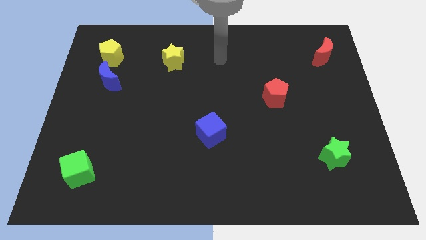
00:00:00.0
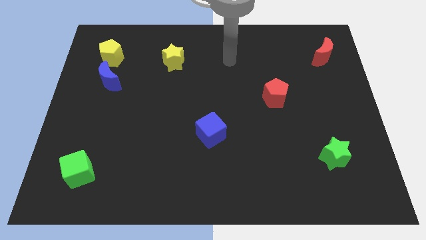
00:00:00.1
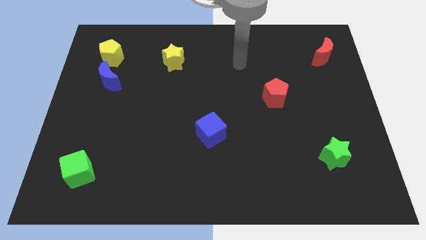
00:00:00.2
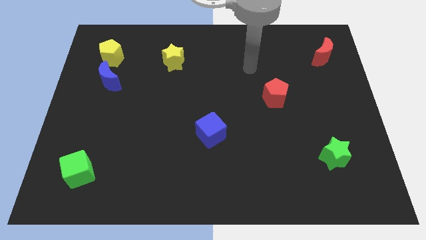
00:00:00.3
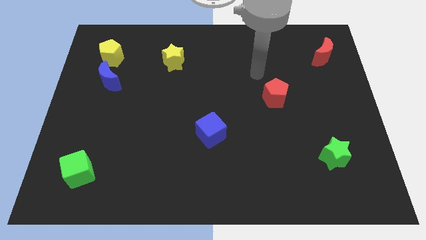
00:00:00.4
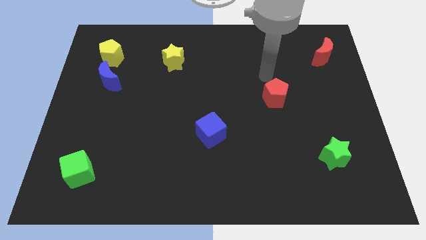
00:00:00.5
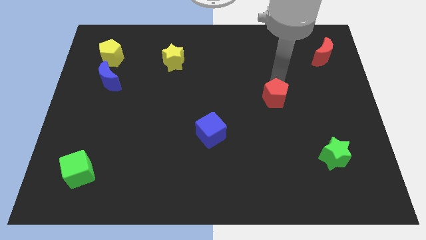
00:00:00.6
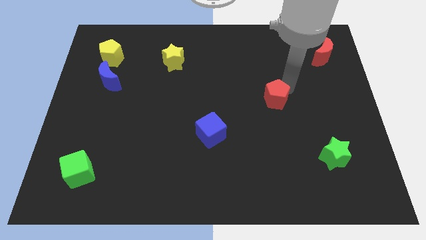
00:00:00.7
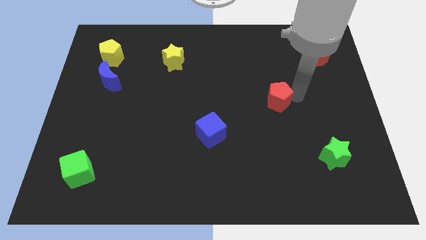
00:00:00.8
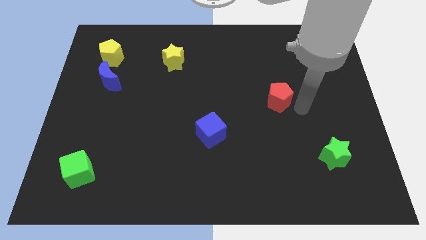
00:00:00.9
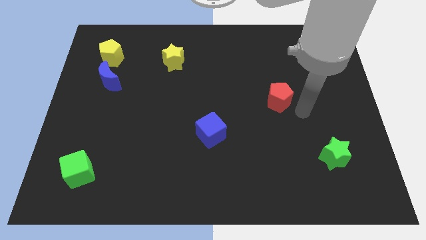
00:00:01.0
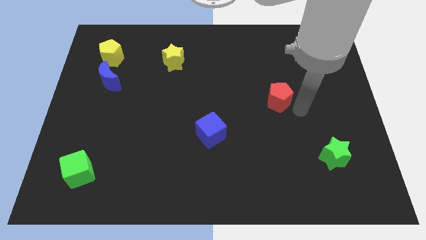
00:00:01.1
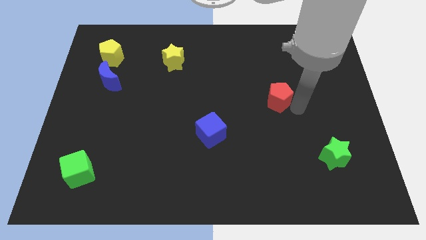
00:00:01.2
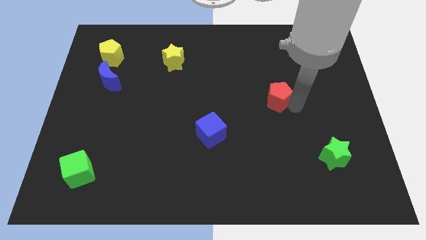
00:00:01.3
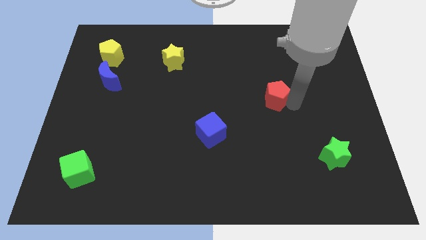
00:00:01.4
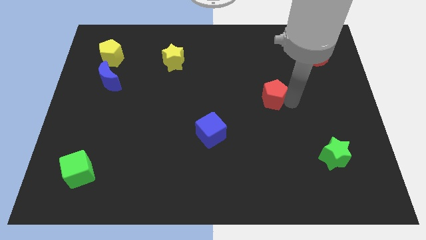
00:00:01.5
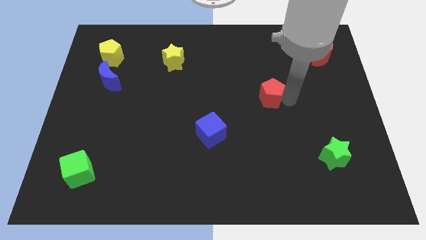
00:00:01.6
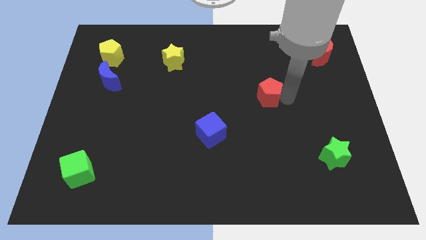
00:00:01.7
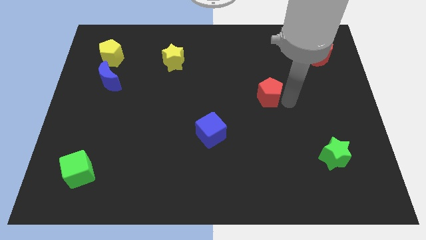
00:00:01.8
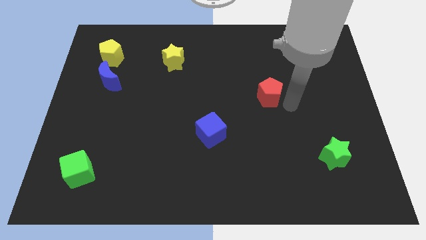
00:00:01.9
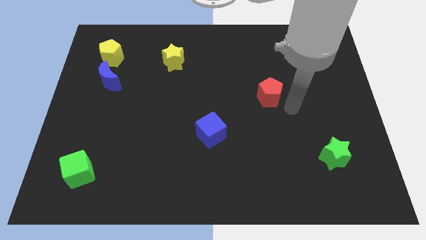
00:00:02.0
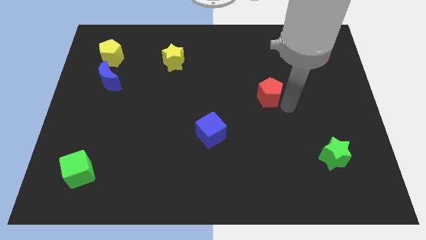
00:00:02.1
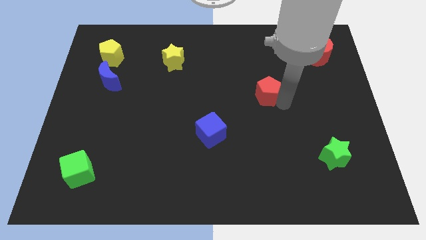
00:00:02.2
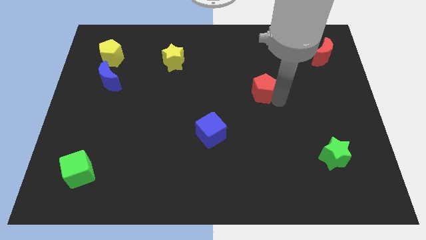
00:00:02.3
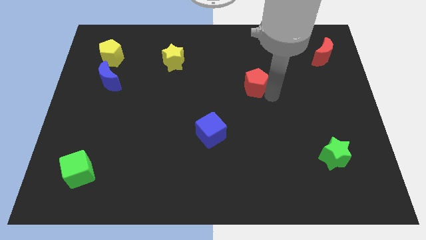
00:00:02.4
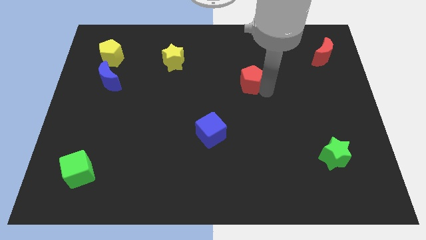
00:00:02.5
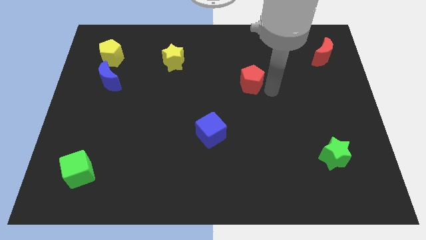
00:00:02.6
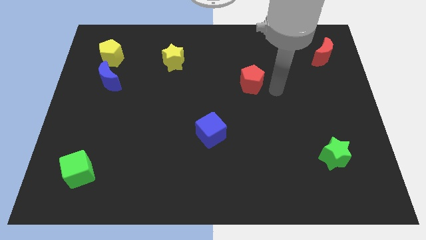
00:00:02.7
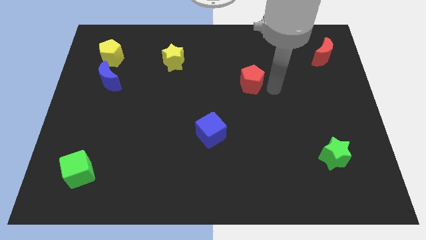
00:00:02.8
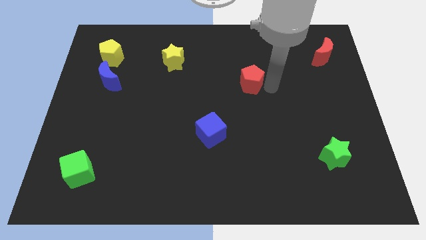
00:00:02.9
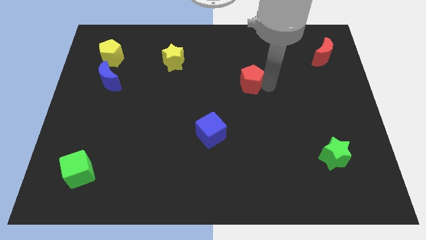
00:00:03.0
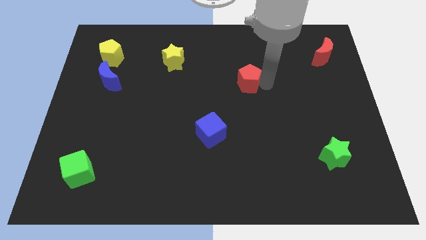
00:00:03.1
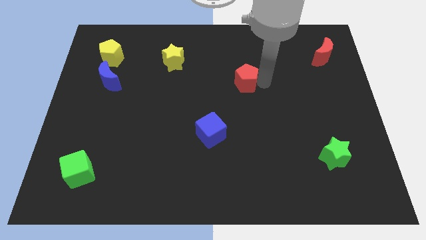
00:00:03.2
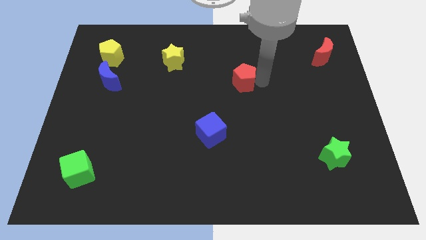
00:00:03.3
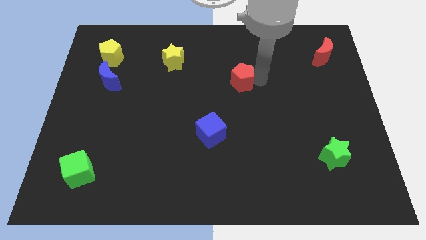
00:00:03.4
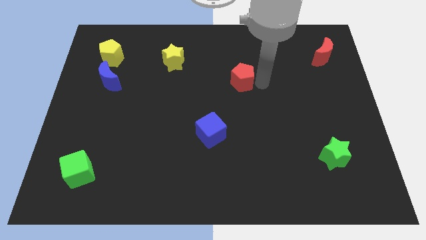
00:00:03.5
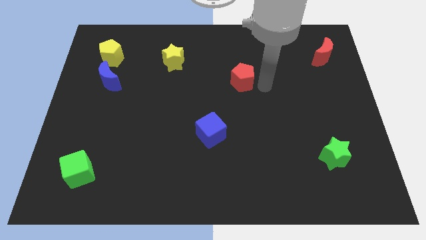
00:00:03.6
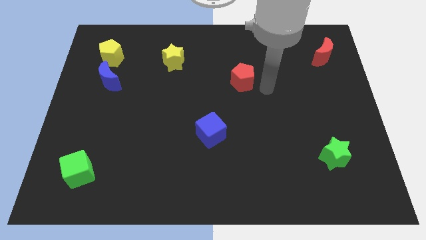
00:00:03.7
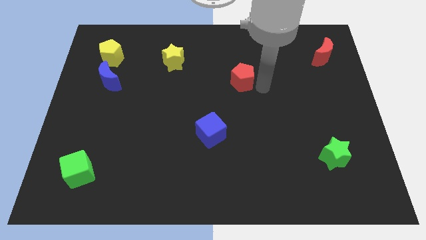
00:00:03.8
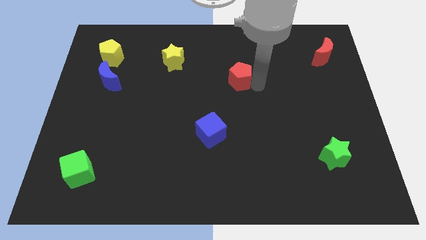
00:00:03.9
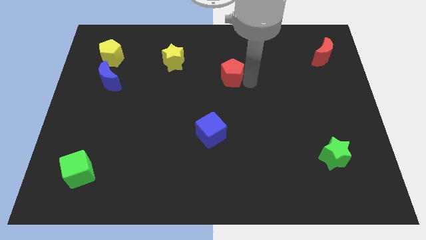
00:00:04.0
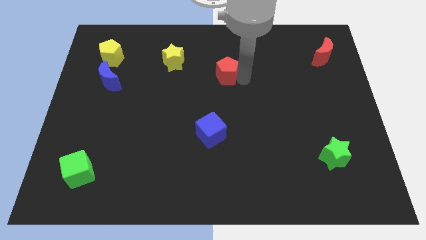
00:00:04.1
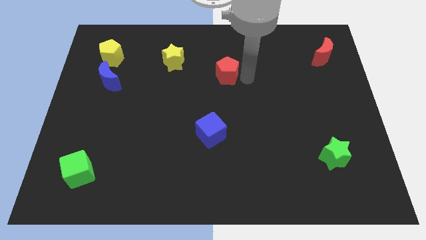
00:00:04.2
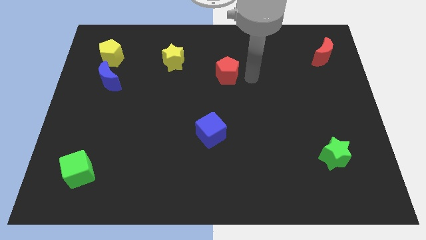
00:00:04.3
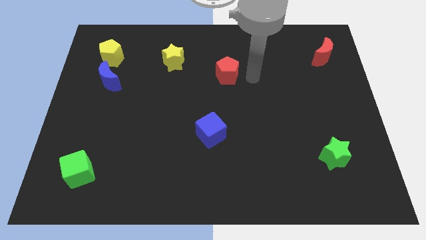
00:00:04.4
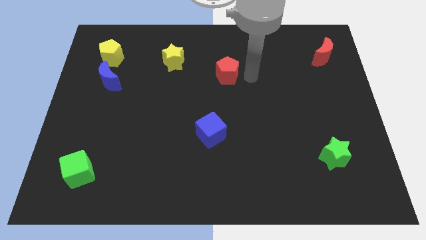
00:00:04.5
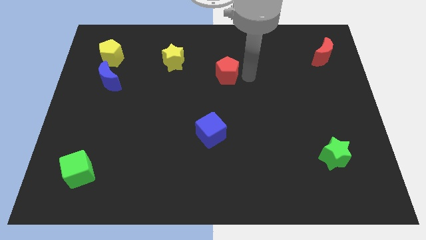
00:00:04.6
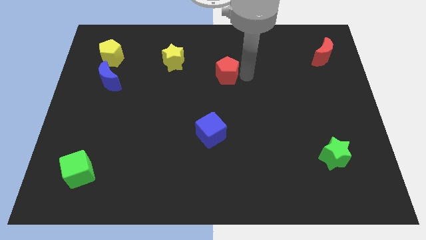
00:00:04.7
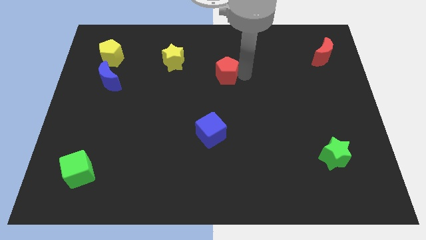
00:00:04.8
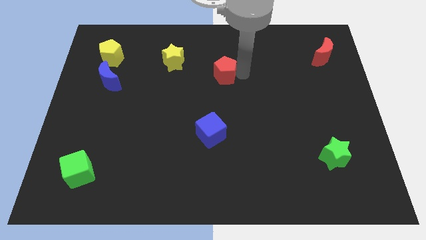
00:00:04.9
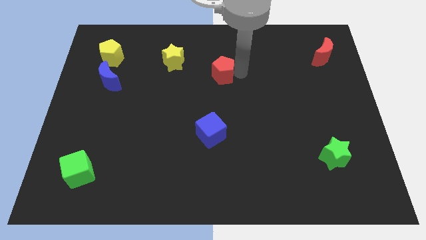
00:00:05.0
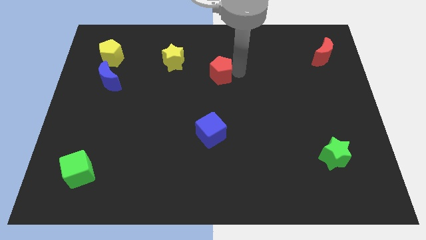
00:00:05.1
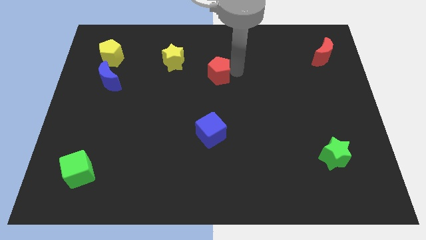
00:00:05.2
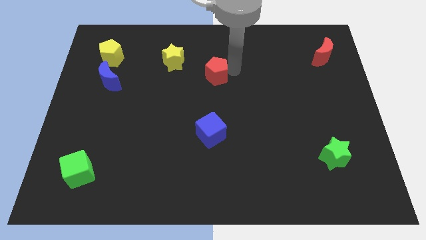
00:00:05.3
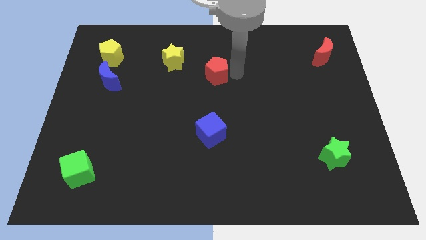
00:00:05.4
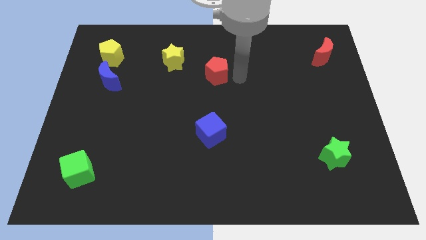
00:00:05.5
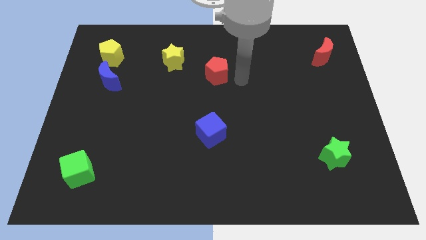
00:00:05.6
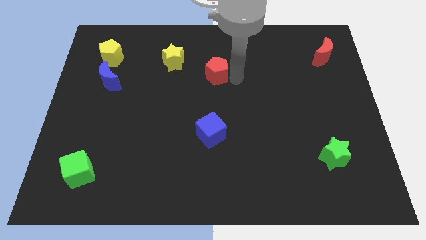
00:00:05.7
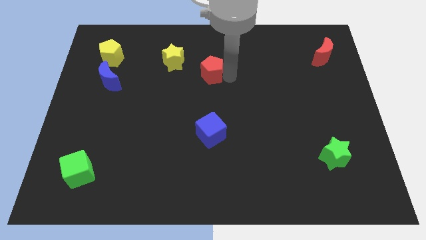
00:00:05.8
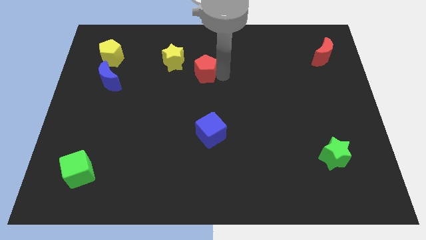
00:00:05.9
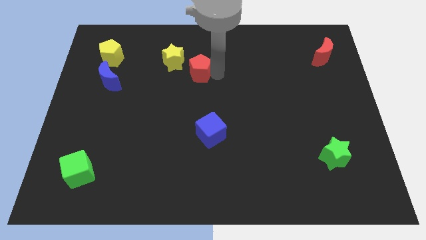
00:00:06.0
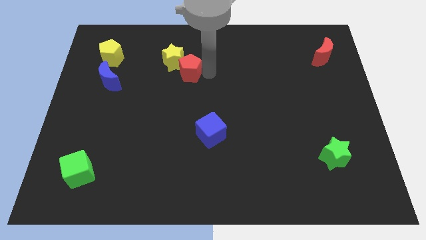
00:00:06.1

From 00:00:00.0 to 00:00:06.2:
push the red pentagon to the yellow star

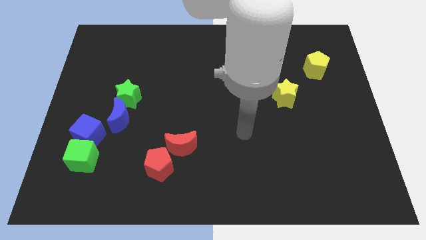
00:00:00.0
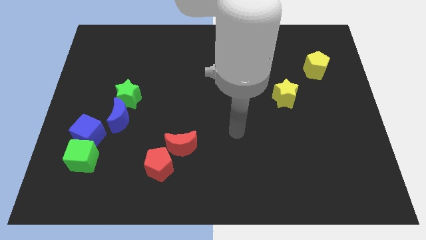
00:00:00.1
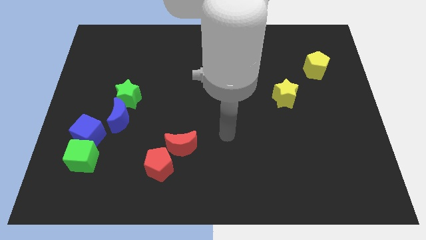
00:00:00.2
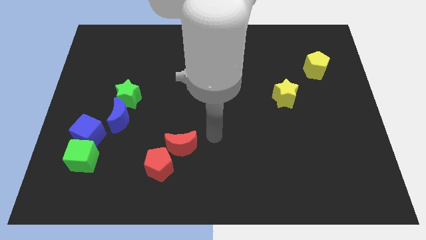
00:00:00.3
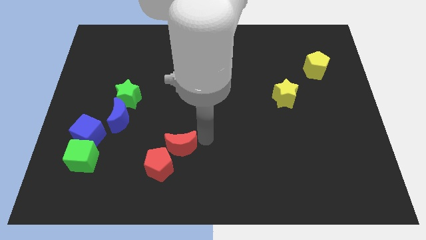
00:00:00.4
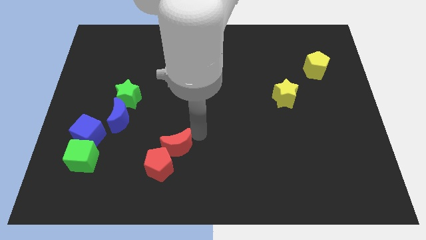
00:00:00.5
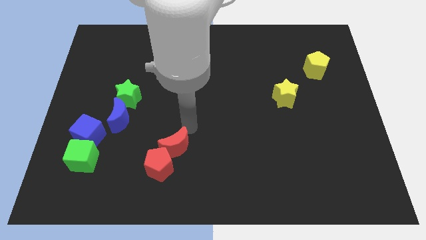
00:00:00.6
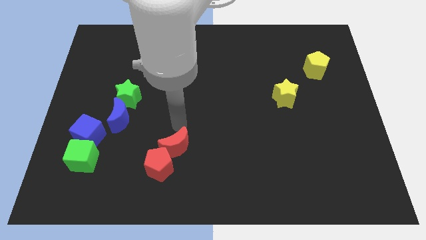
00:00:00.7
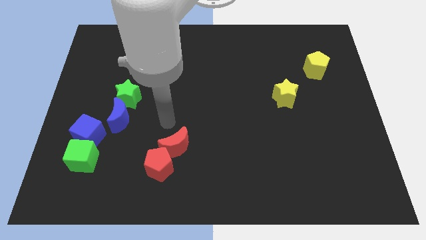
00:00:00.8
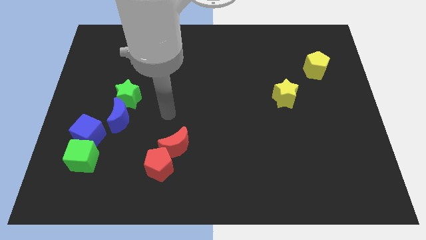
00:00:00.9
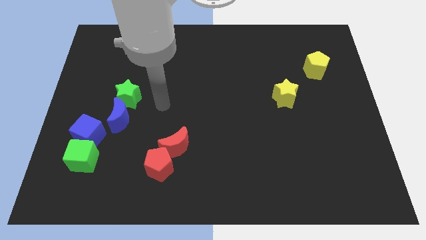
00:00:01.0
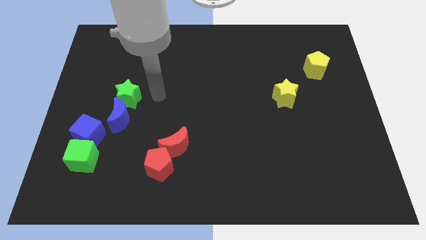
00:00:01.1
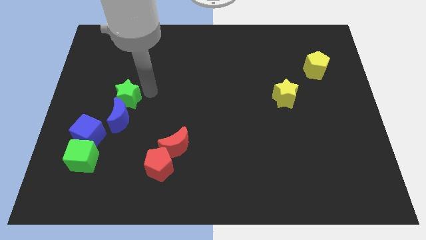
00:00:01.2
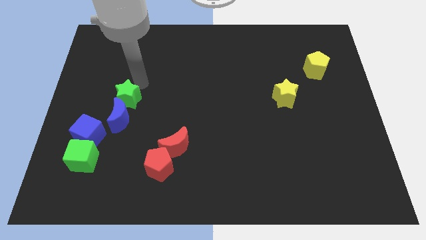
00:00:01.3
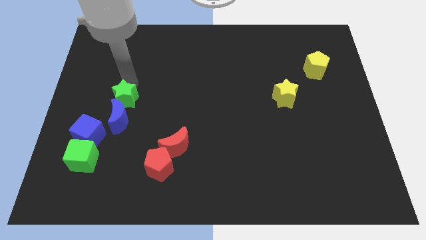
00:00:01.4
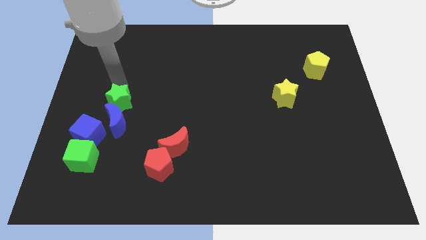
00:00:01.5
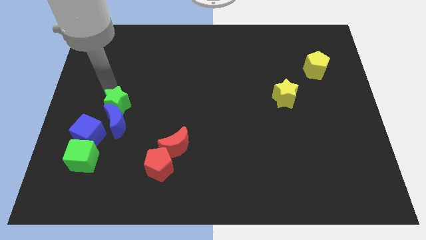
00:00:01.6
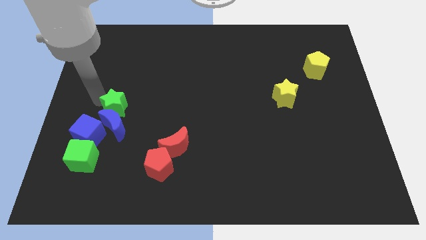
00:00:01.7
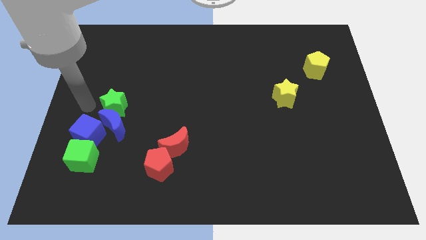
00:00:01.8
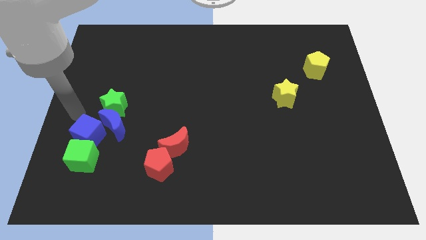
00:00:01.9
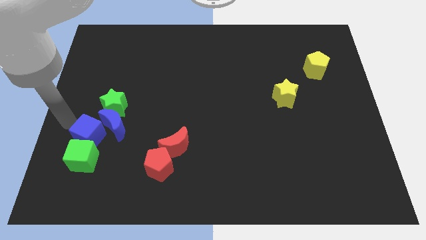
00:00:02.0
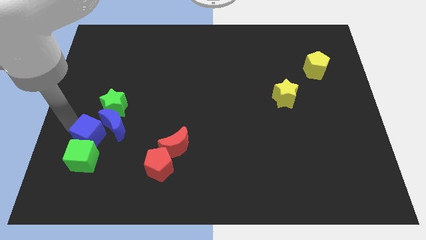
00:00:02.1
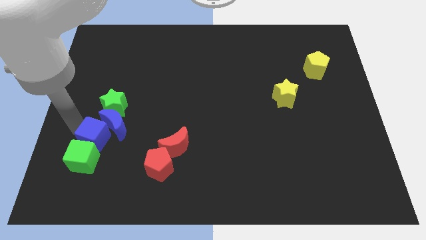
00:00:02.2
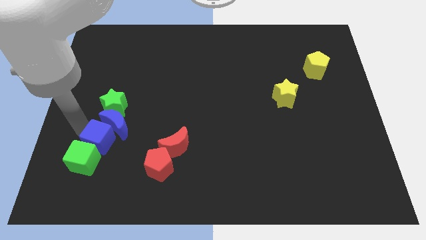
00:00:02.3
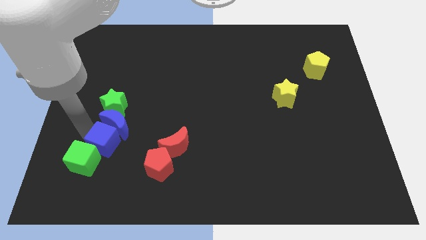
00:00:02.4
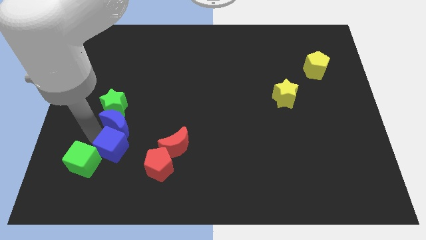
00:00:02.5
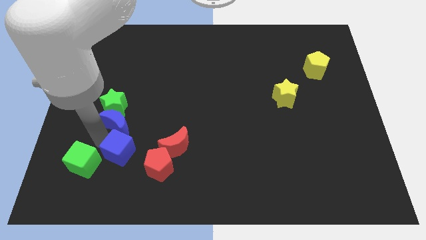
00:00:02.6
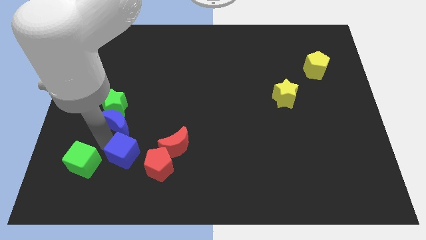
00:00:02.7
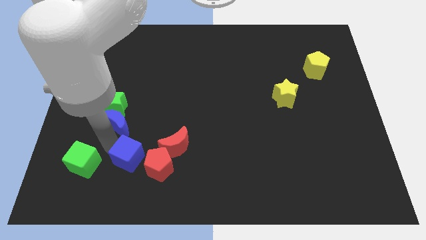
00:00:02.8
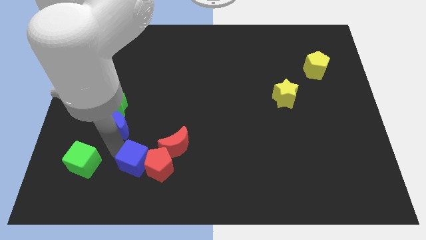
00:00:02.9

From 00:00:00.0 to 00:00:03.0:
slide the blue cube towards the red pentagon
